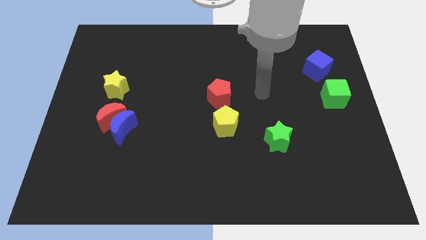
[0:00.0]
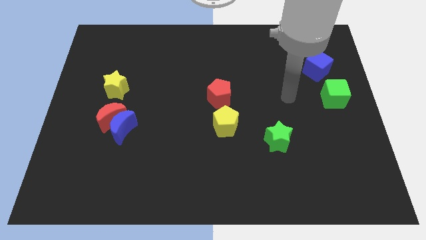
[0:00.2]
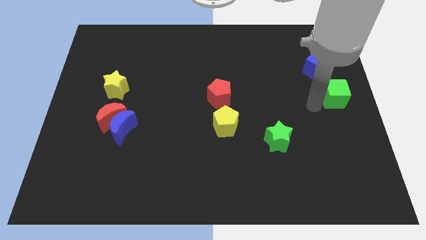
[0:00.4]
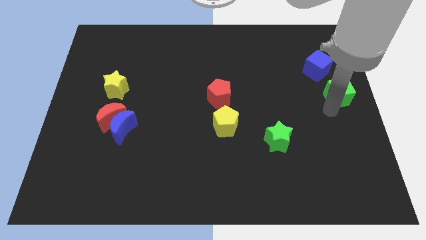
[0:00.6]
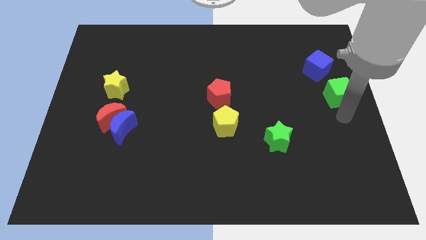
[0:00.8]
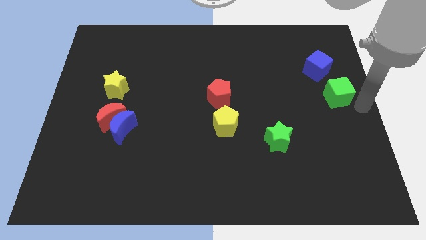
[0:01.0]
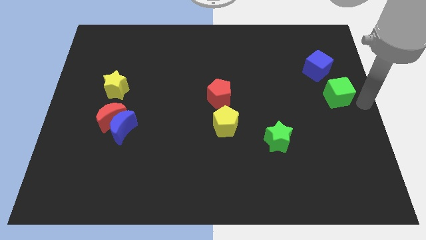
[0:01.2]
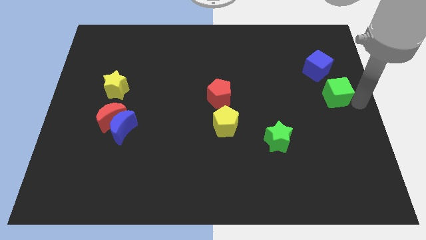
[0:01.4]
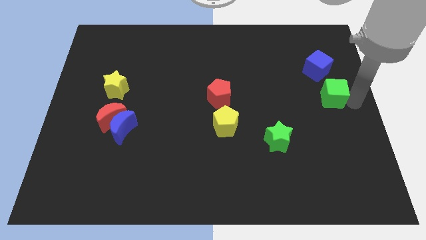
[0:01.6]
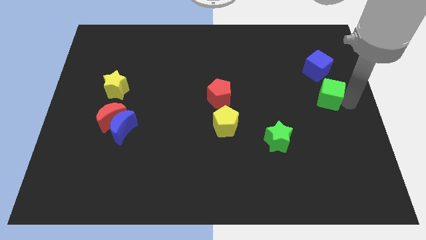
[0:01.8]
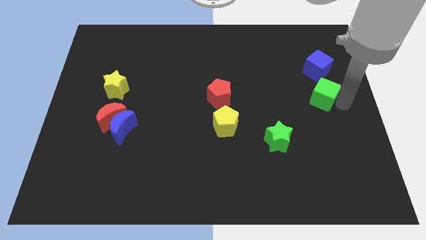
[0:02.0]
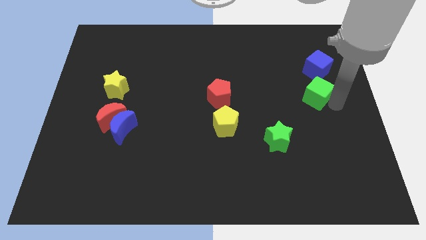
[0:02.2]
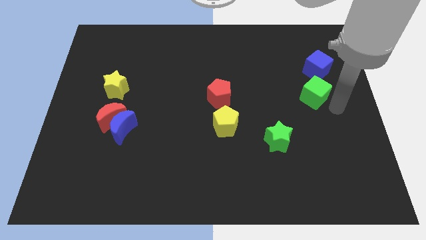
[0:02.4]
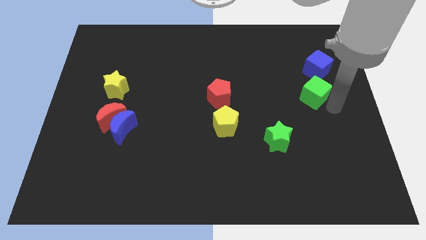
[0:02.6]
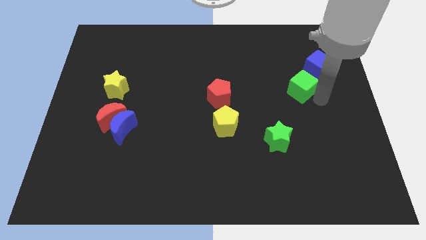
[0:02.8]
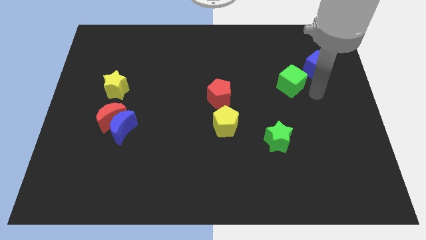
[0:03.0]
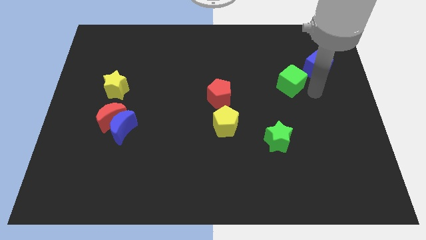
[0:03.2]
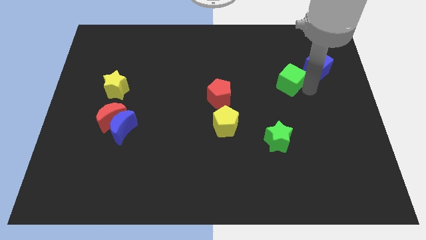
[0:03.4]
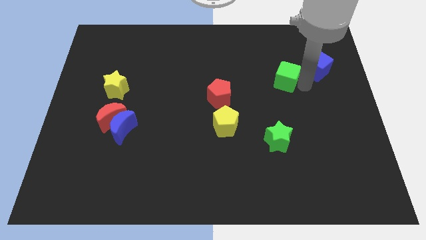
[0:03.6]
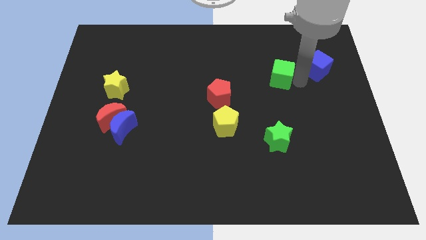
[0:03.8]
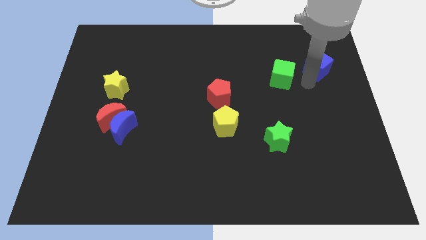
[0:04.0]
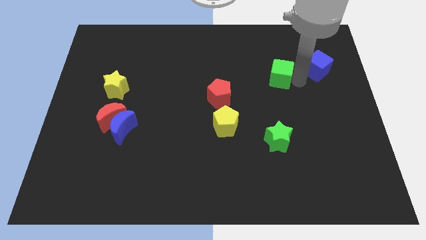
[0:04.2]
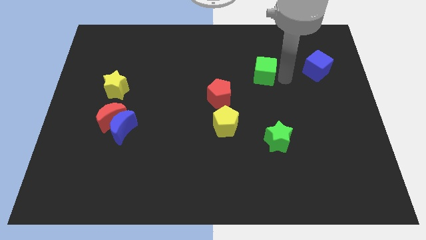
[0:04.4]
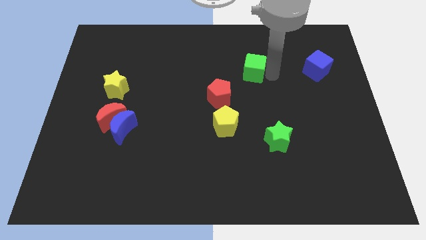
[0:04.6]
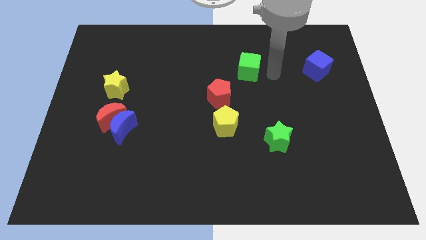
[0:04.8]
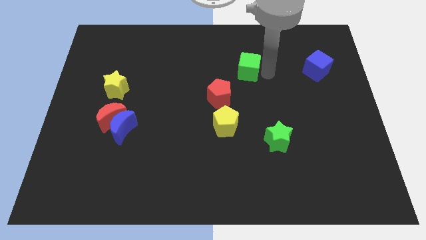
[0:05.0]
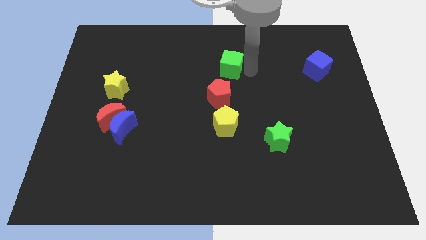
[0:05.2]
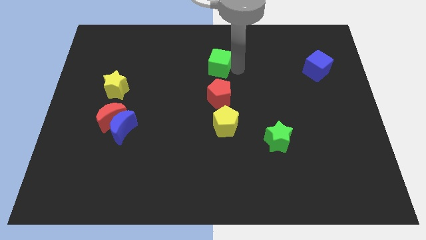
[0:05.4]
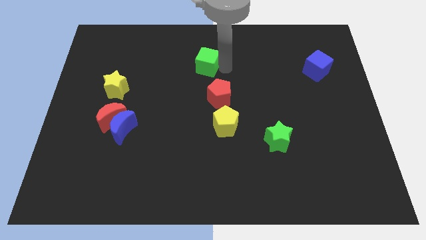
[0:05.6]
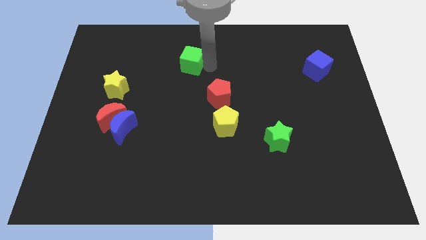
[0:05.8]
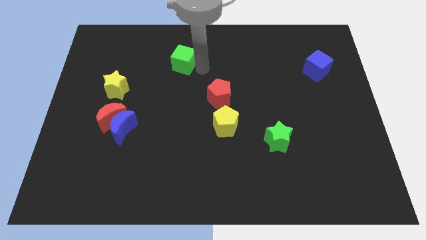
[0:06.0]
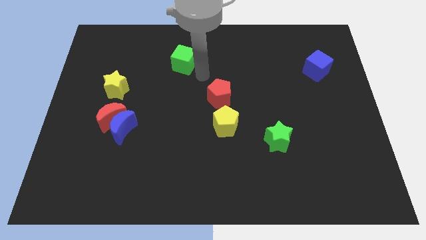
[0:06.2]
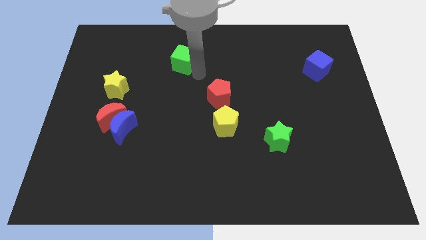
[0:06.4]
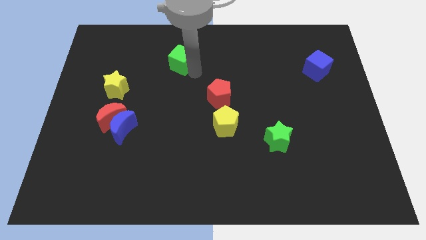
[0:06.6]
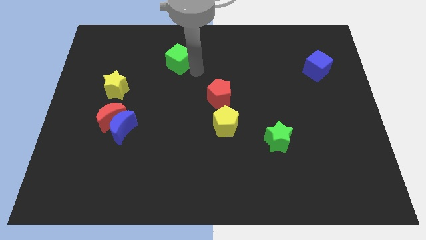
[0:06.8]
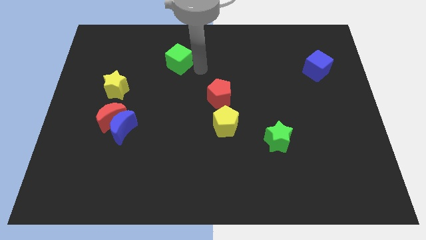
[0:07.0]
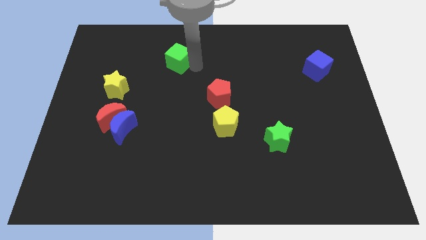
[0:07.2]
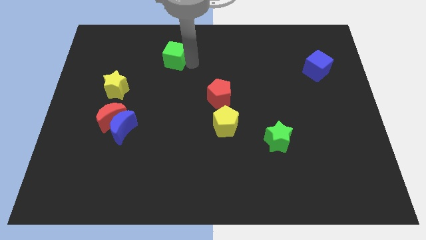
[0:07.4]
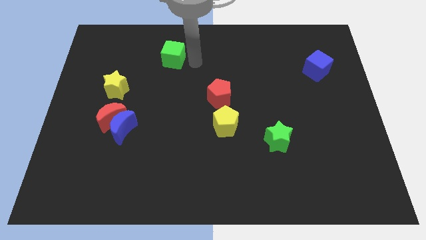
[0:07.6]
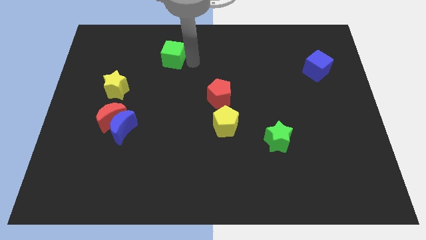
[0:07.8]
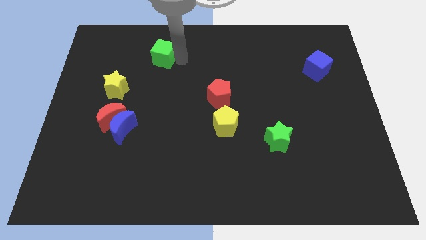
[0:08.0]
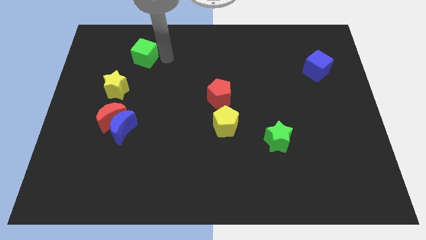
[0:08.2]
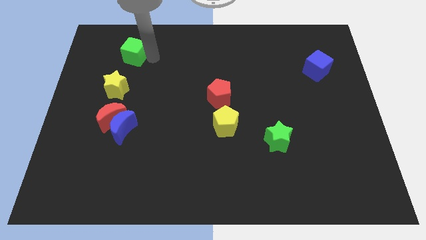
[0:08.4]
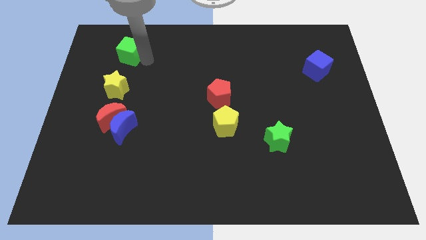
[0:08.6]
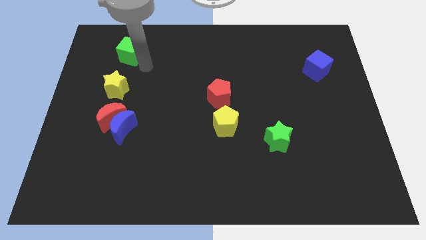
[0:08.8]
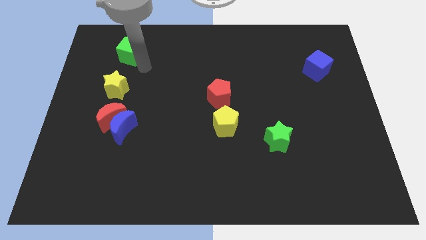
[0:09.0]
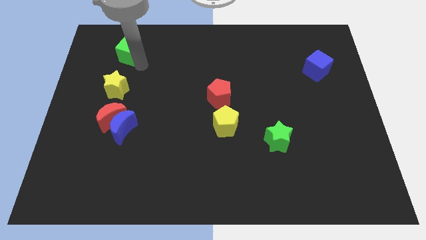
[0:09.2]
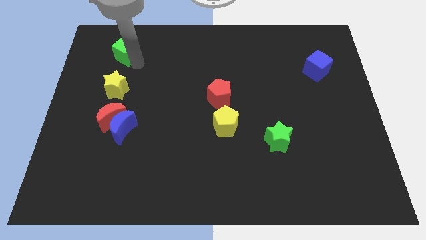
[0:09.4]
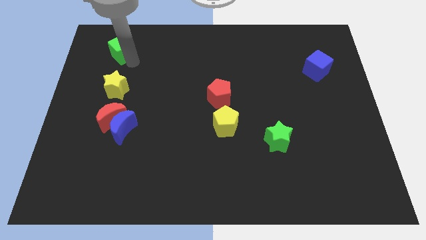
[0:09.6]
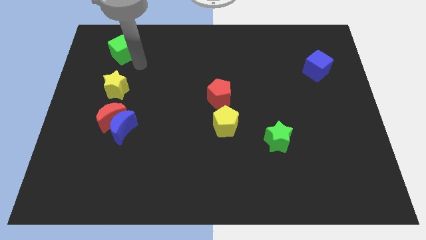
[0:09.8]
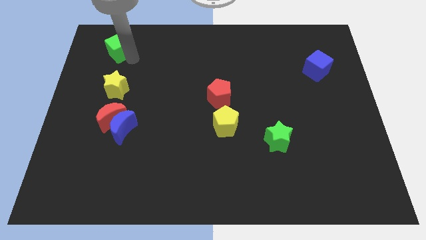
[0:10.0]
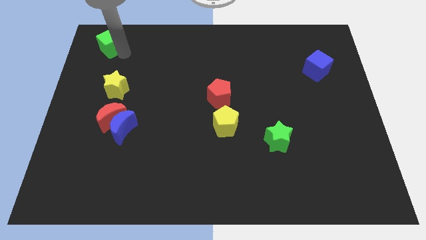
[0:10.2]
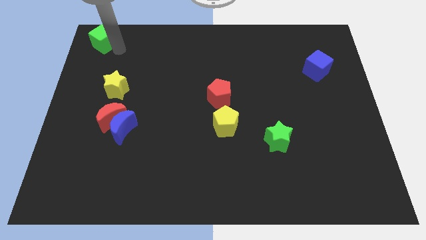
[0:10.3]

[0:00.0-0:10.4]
push the green cube to the top left of the board

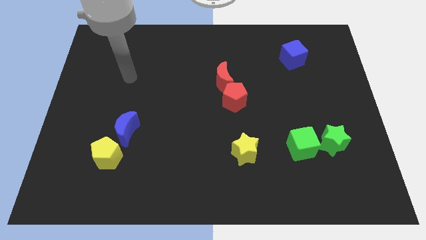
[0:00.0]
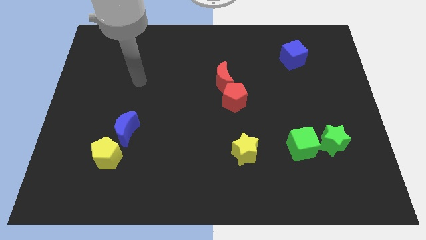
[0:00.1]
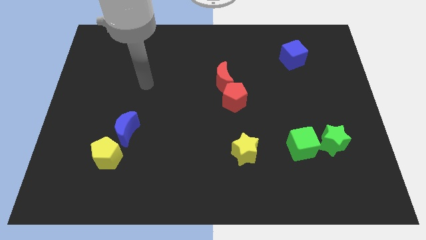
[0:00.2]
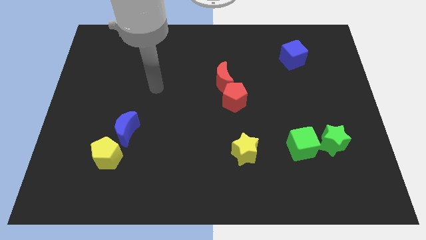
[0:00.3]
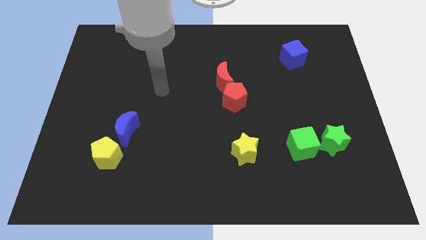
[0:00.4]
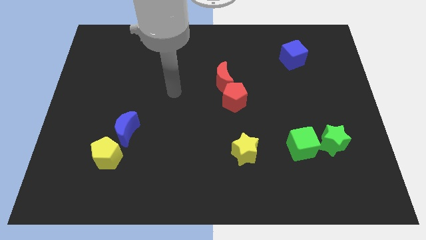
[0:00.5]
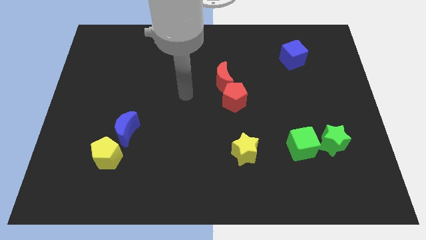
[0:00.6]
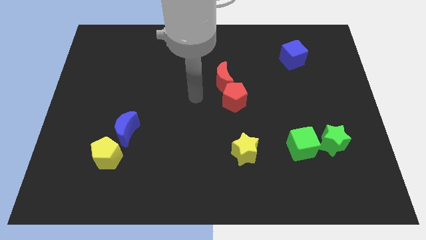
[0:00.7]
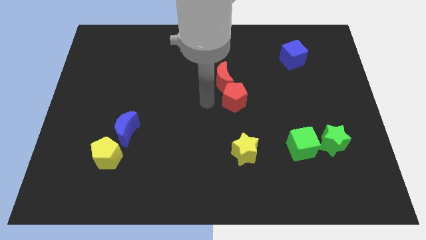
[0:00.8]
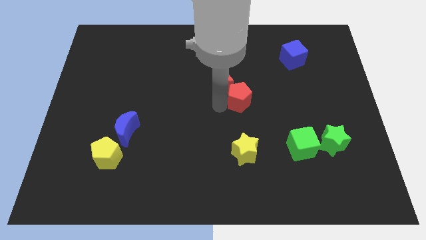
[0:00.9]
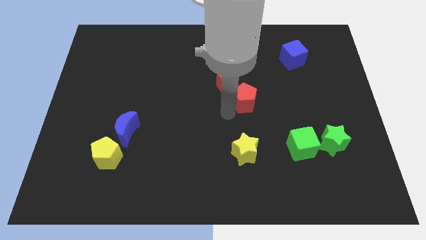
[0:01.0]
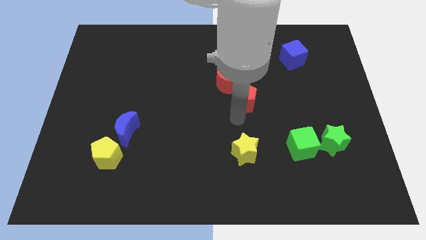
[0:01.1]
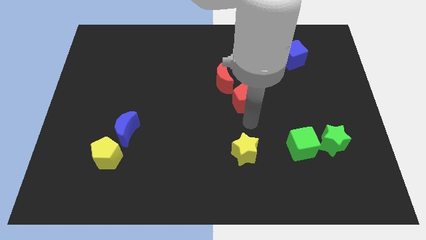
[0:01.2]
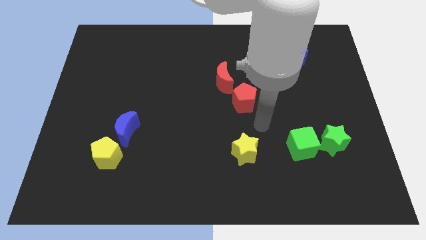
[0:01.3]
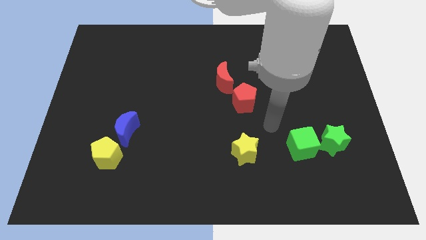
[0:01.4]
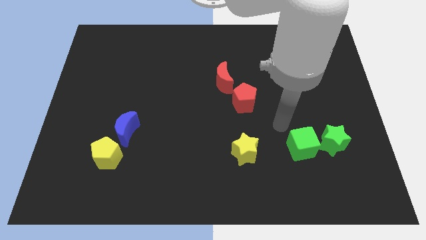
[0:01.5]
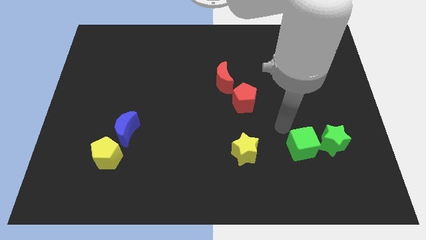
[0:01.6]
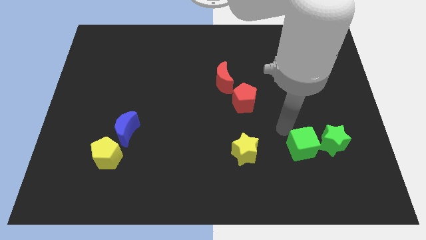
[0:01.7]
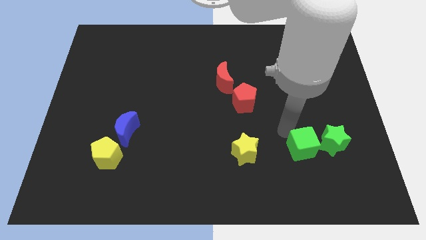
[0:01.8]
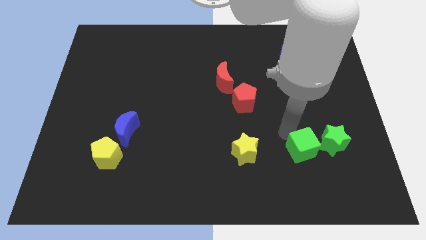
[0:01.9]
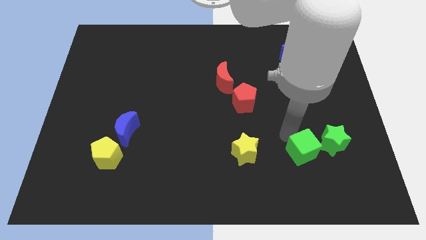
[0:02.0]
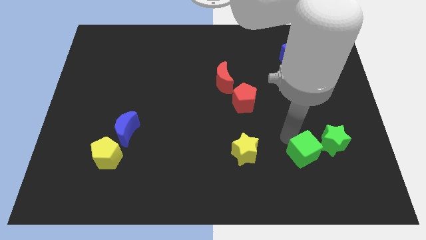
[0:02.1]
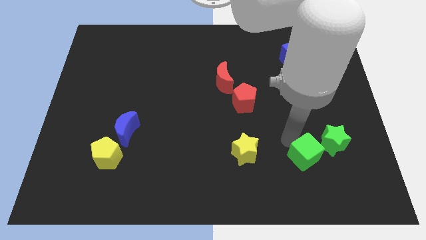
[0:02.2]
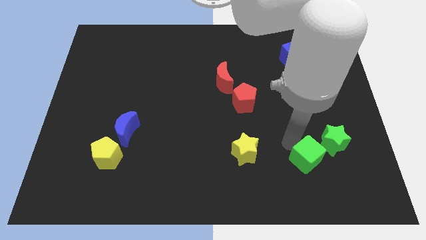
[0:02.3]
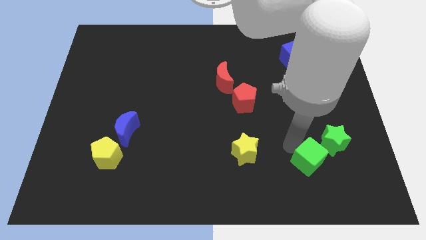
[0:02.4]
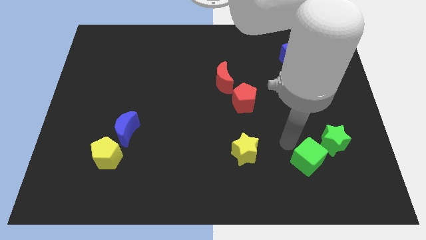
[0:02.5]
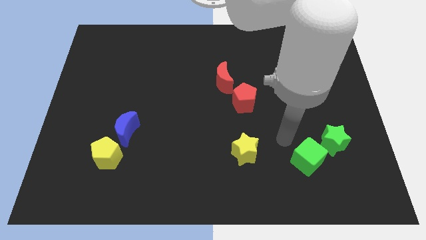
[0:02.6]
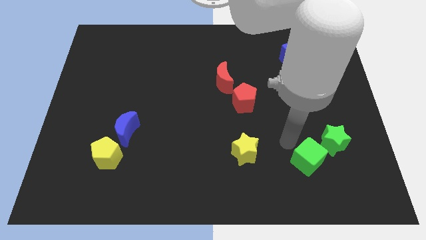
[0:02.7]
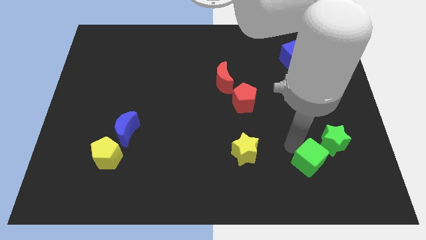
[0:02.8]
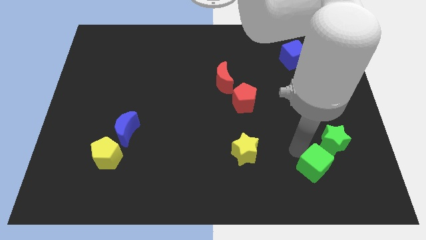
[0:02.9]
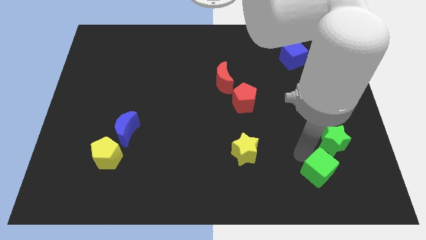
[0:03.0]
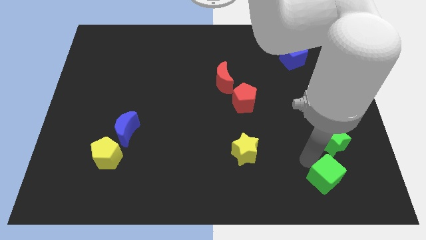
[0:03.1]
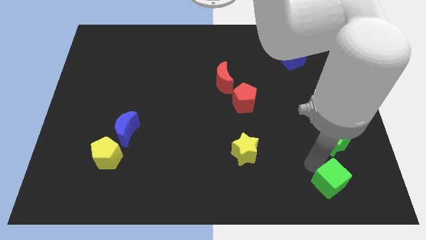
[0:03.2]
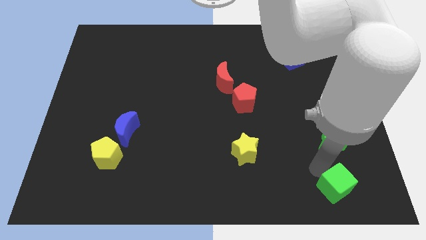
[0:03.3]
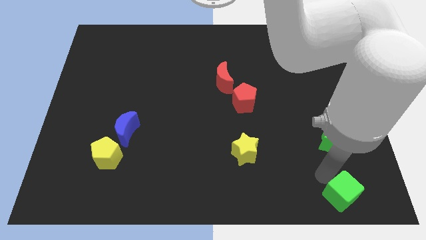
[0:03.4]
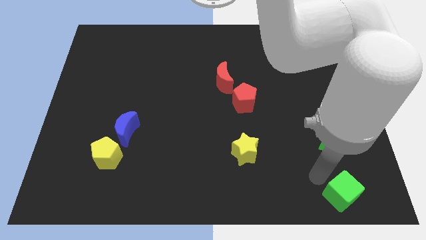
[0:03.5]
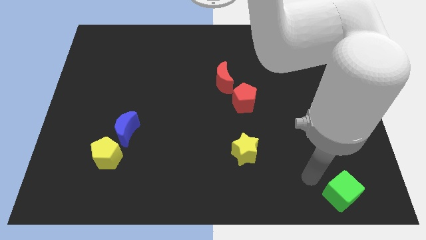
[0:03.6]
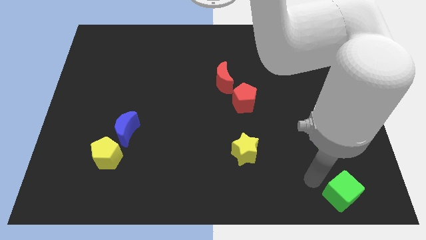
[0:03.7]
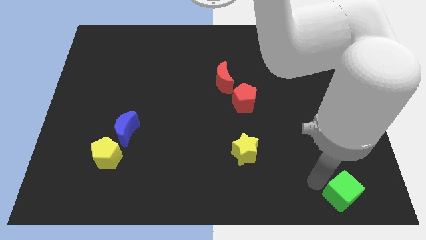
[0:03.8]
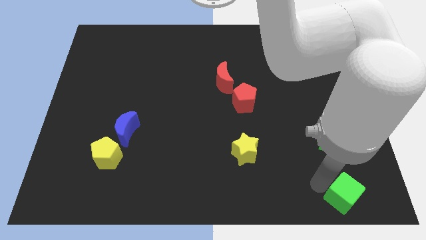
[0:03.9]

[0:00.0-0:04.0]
slide the green cube to the bottom right corner
